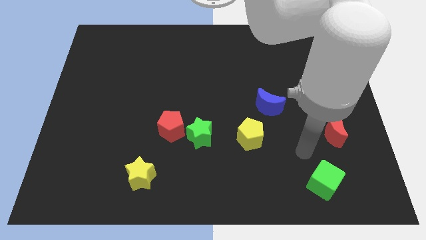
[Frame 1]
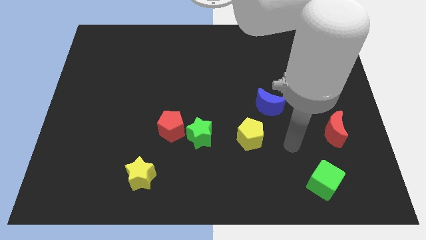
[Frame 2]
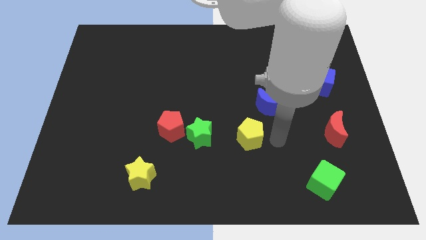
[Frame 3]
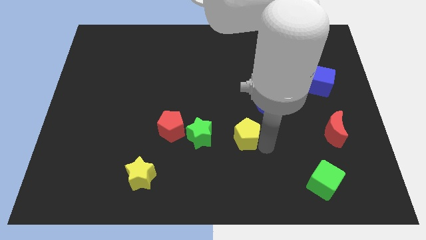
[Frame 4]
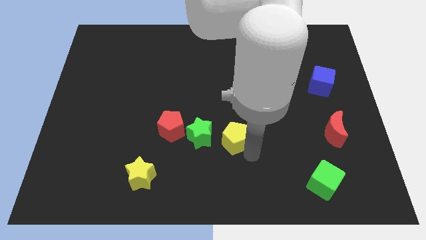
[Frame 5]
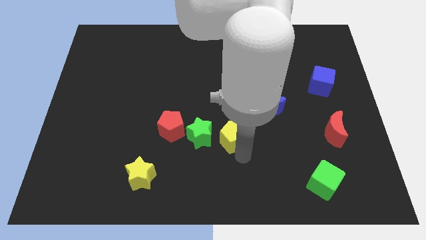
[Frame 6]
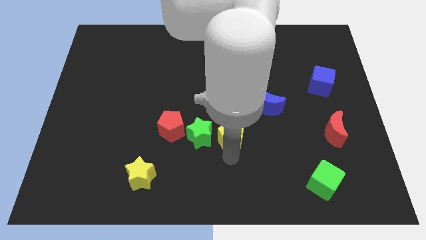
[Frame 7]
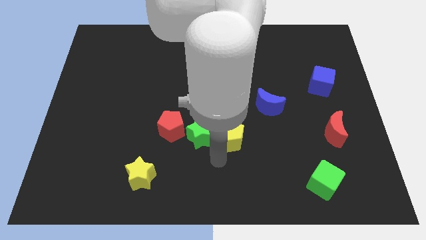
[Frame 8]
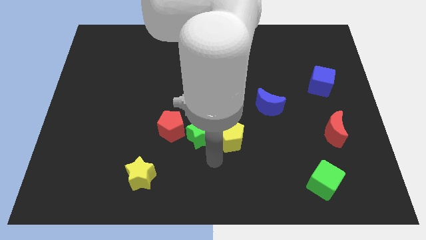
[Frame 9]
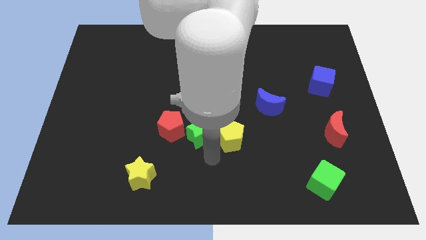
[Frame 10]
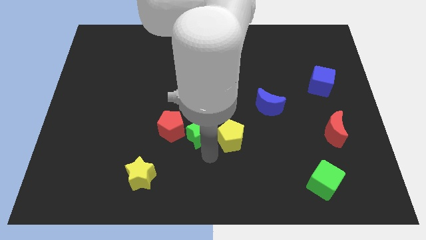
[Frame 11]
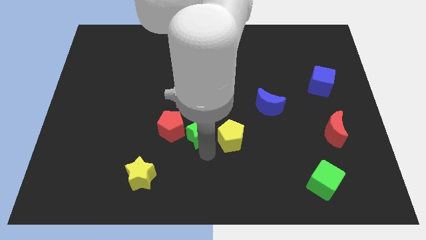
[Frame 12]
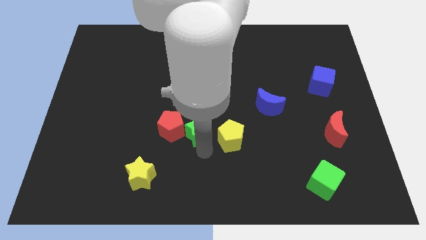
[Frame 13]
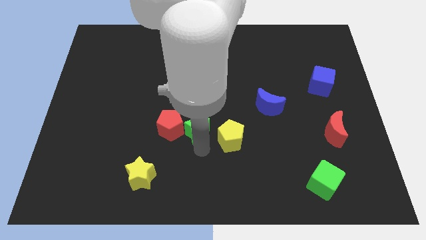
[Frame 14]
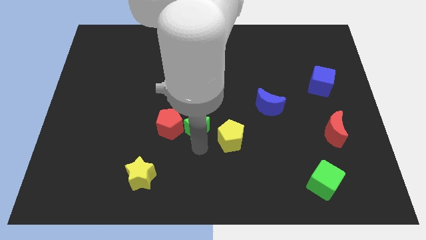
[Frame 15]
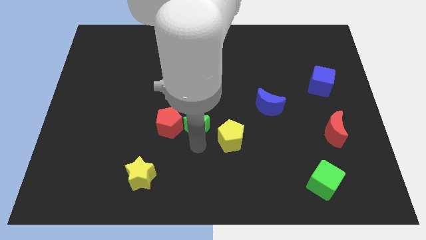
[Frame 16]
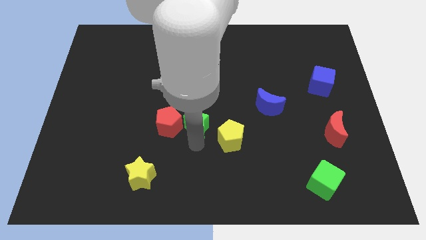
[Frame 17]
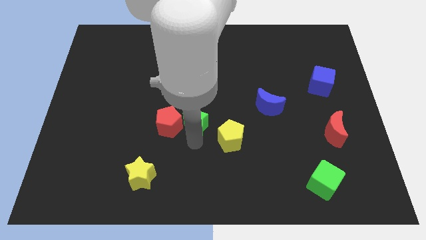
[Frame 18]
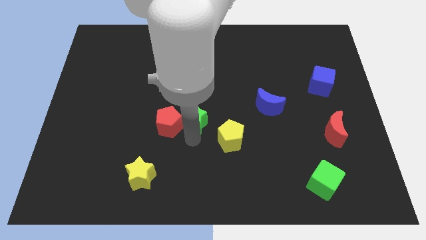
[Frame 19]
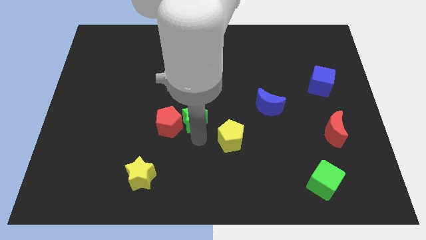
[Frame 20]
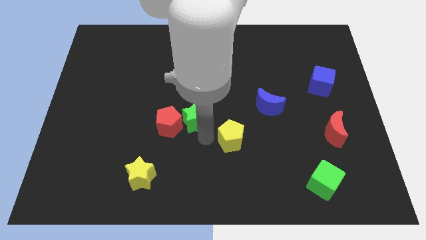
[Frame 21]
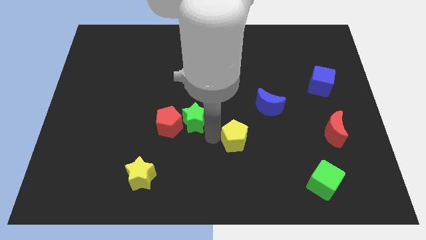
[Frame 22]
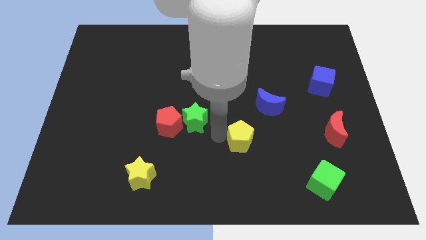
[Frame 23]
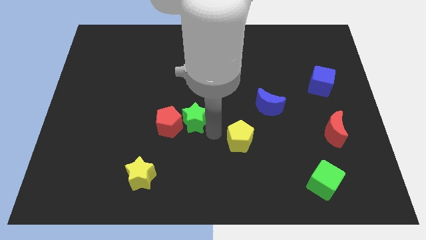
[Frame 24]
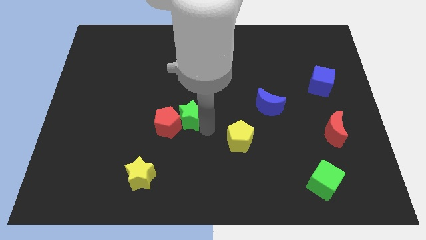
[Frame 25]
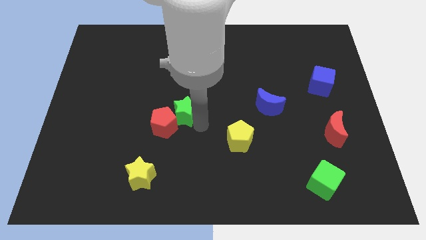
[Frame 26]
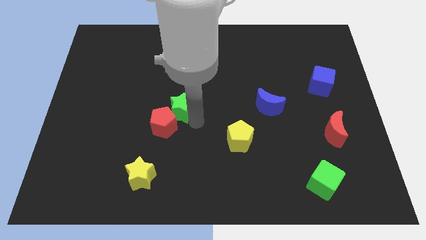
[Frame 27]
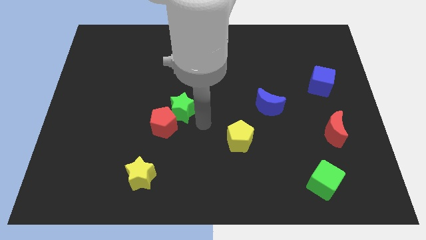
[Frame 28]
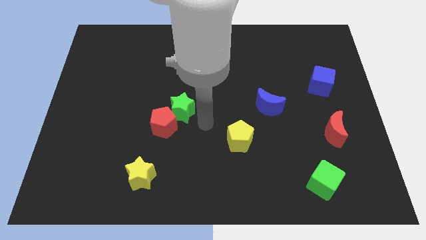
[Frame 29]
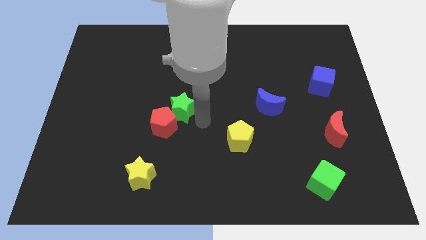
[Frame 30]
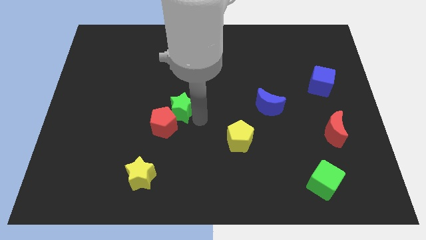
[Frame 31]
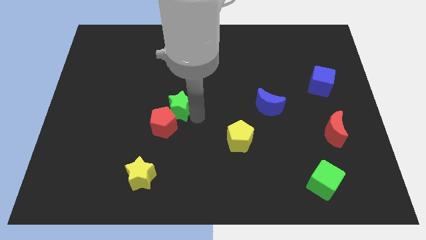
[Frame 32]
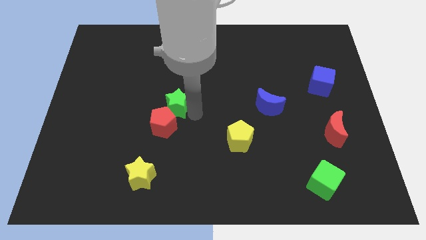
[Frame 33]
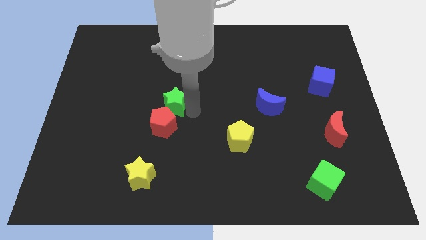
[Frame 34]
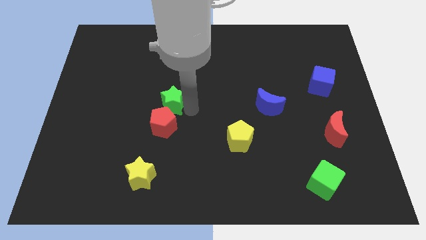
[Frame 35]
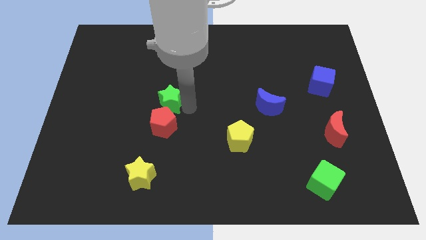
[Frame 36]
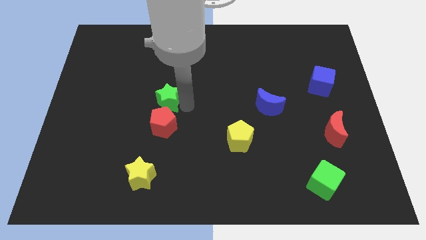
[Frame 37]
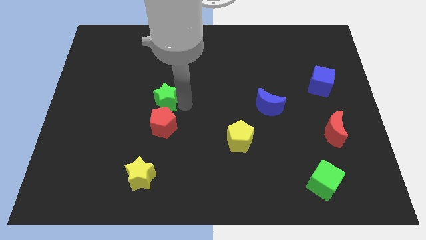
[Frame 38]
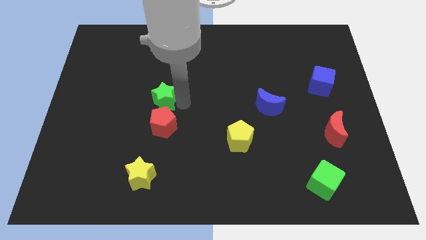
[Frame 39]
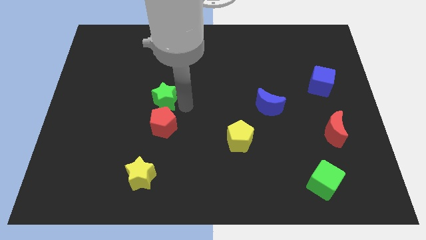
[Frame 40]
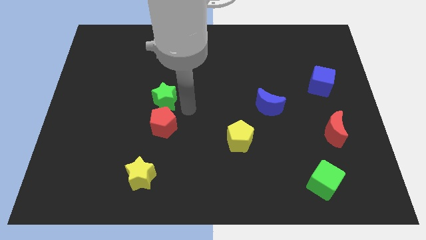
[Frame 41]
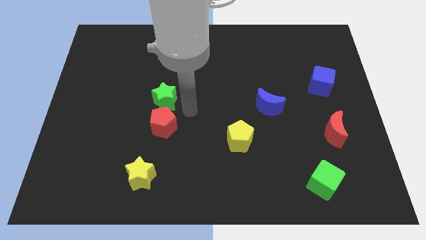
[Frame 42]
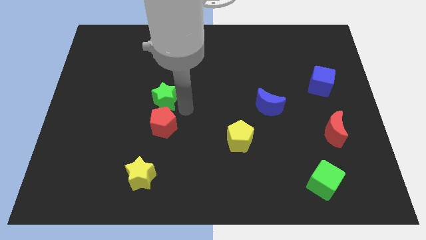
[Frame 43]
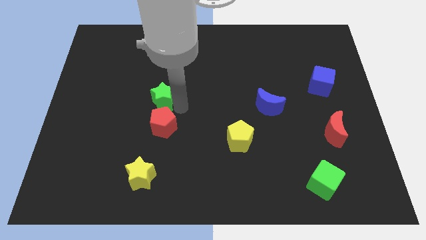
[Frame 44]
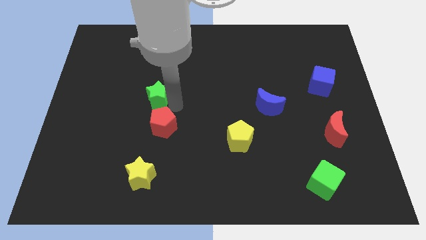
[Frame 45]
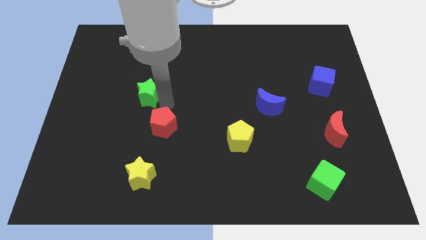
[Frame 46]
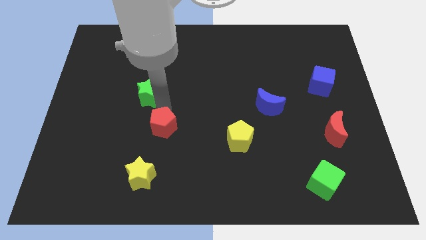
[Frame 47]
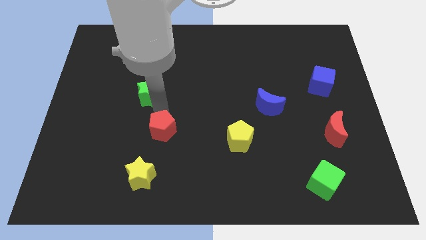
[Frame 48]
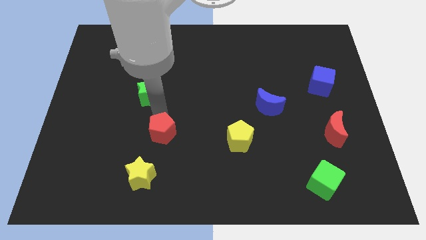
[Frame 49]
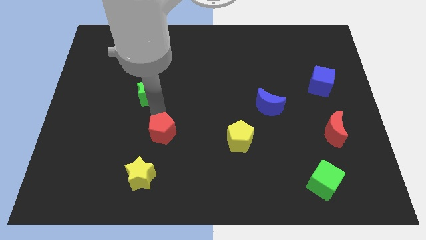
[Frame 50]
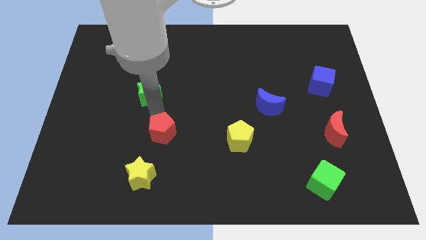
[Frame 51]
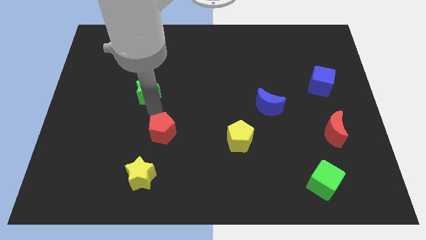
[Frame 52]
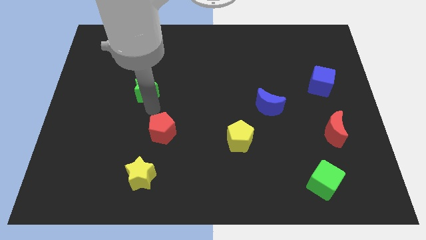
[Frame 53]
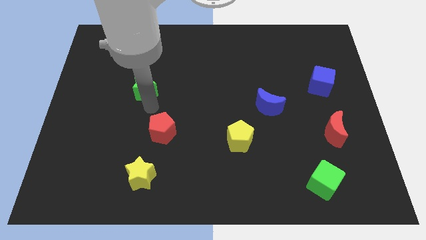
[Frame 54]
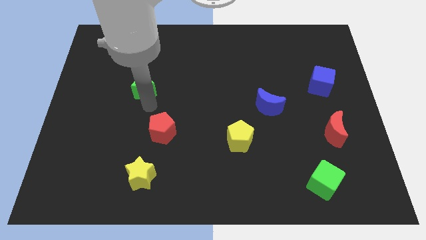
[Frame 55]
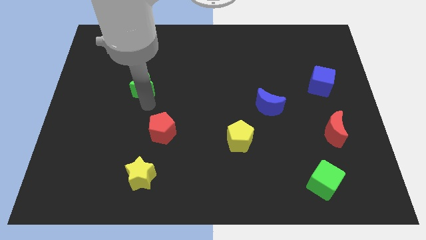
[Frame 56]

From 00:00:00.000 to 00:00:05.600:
move the green star upwards and then left

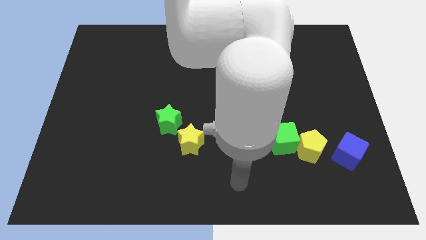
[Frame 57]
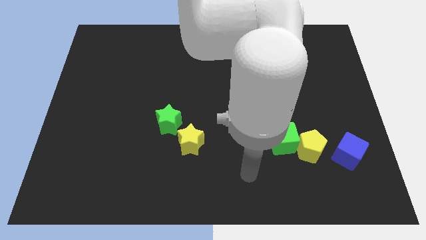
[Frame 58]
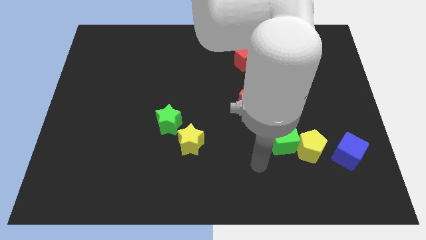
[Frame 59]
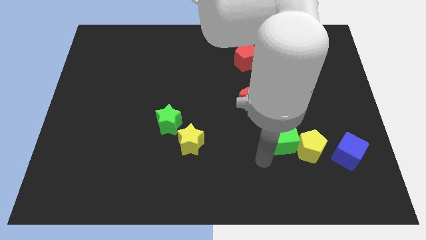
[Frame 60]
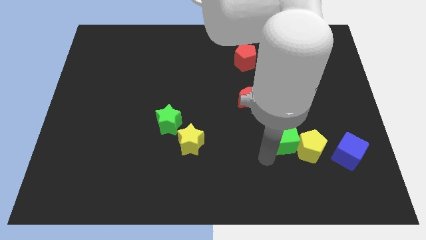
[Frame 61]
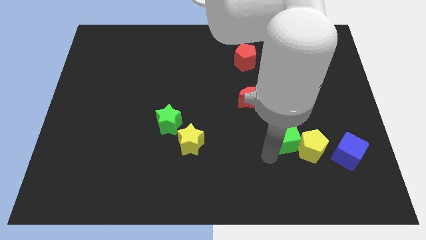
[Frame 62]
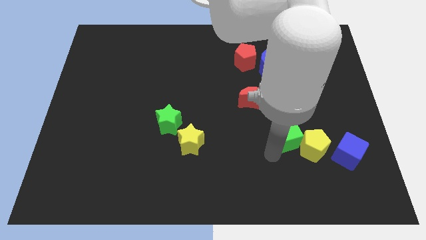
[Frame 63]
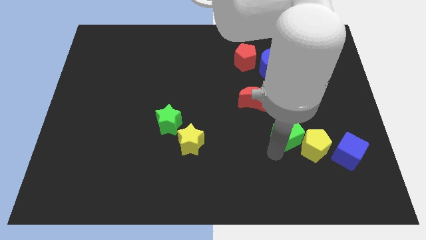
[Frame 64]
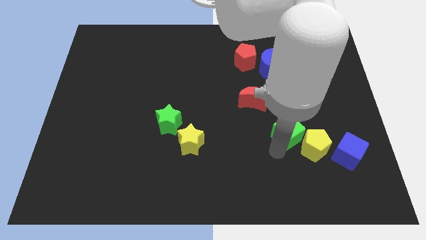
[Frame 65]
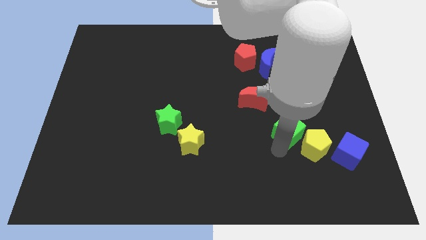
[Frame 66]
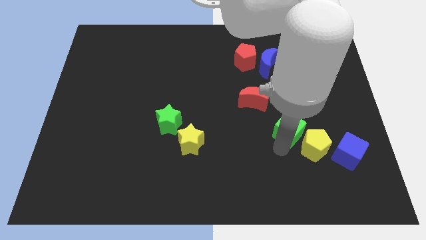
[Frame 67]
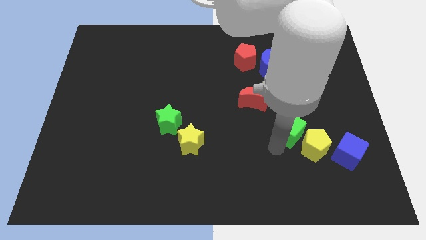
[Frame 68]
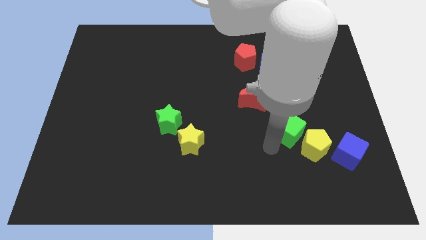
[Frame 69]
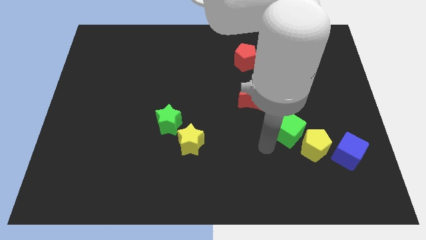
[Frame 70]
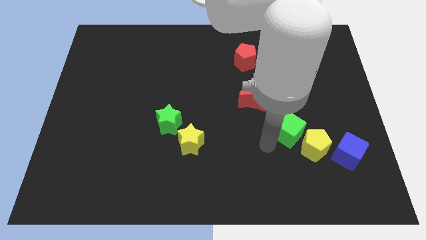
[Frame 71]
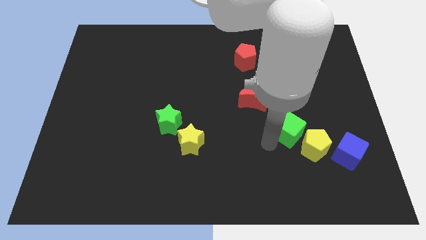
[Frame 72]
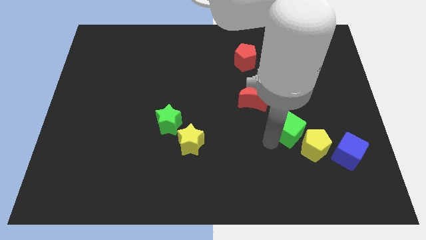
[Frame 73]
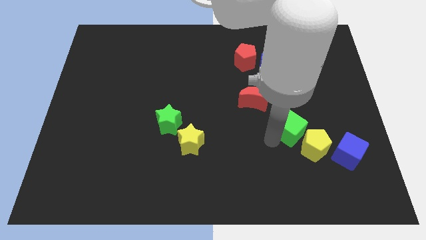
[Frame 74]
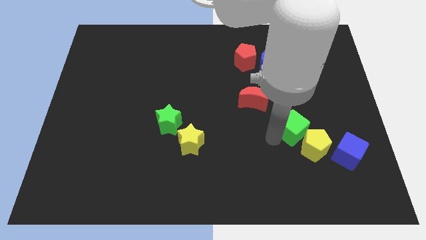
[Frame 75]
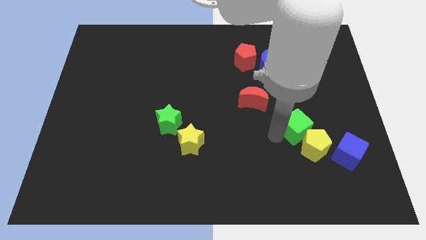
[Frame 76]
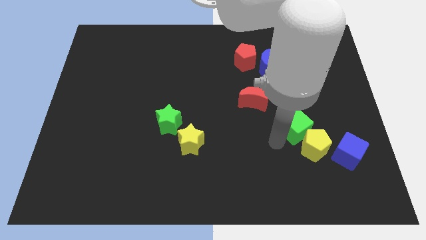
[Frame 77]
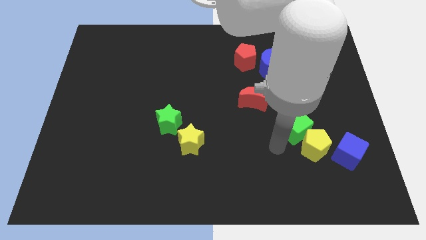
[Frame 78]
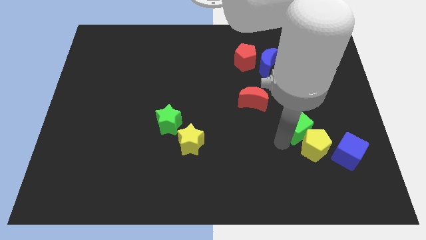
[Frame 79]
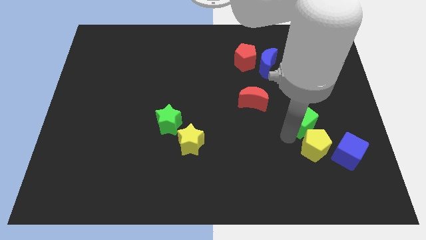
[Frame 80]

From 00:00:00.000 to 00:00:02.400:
slightly push the green cube upwards and to the right diagonally

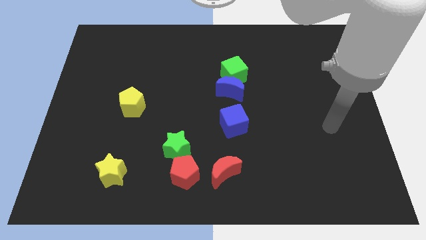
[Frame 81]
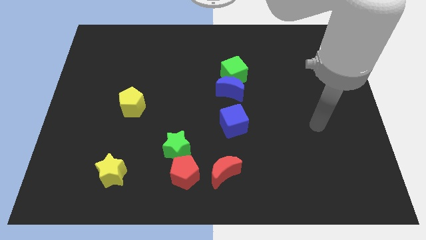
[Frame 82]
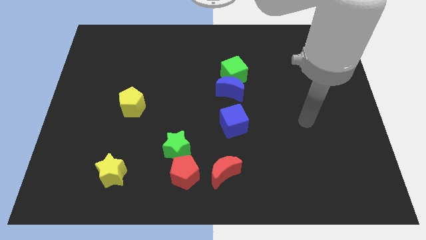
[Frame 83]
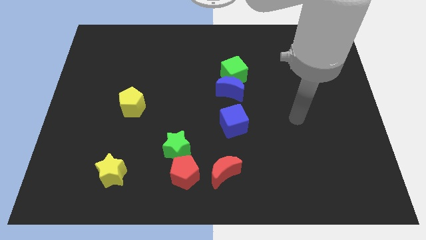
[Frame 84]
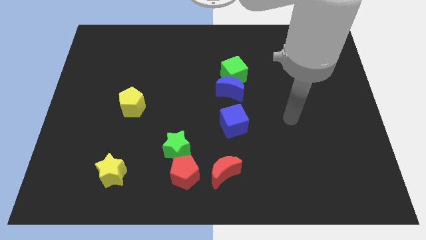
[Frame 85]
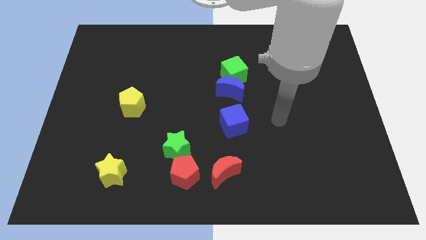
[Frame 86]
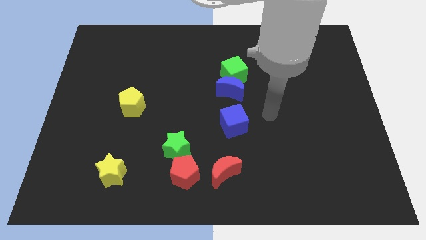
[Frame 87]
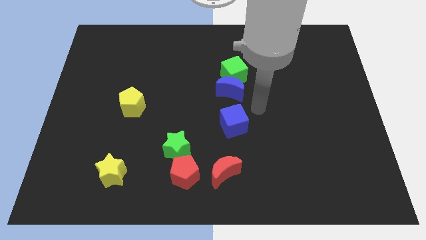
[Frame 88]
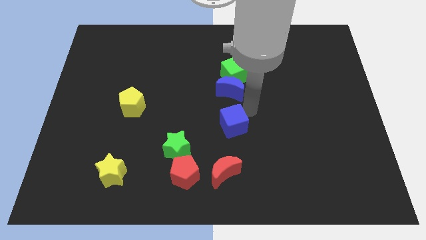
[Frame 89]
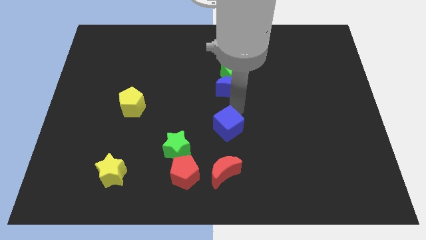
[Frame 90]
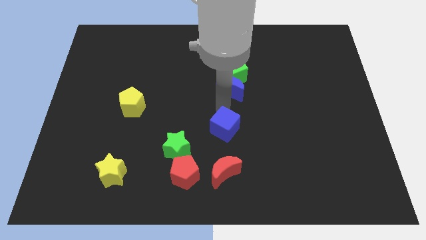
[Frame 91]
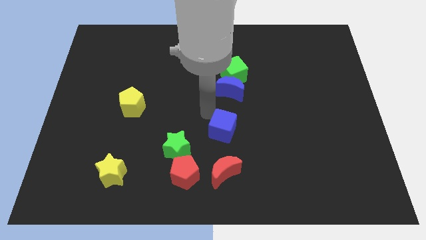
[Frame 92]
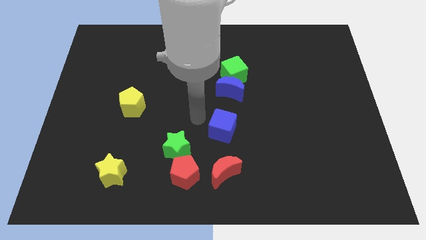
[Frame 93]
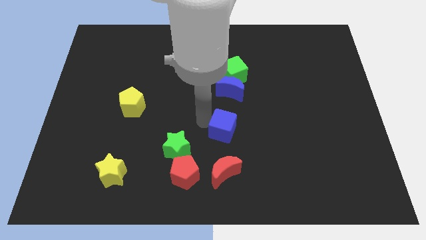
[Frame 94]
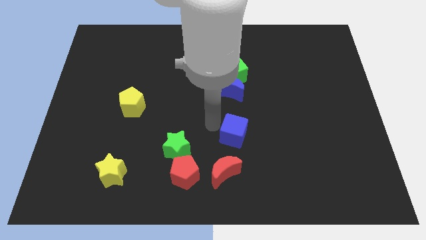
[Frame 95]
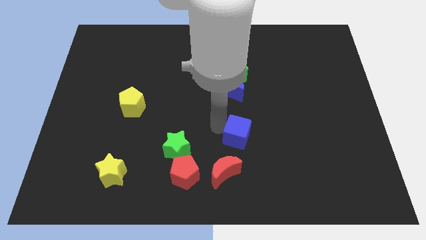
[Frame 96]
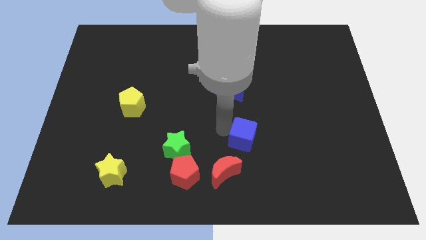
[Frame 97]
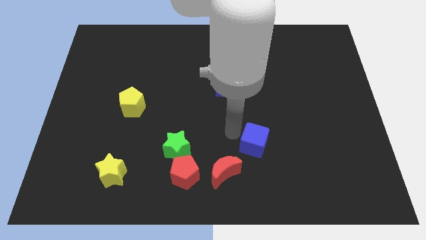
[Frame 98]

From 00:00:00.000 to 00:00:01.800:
move the blue cube down and right diagonally a little bit
